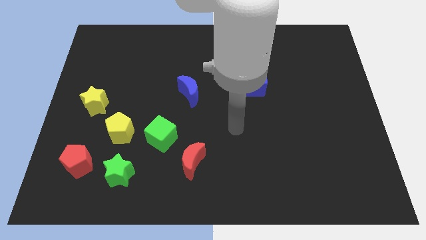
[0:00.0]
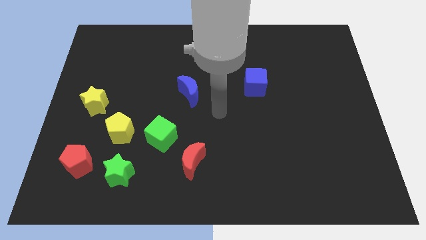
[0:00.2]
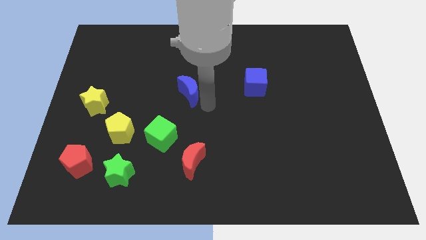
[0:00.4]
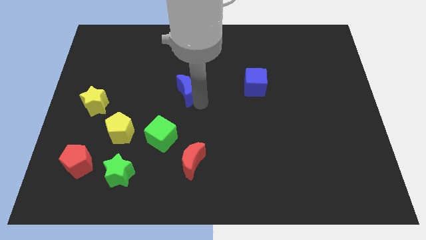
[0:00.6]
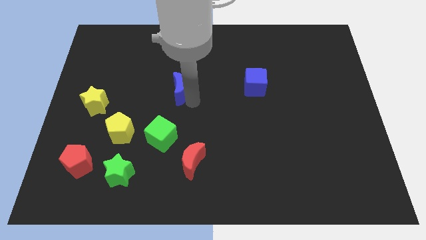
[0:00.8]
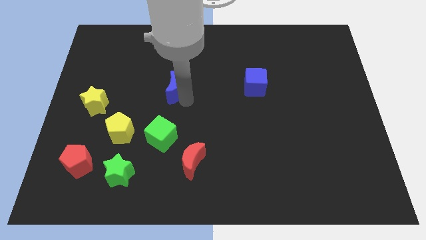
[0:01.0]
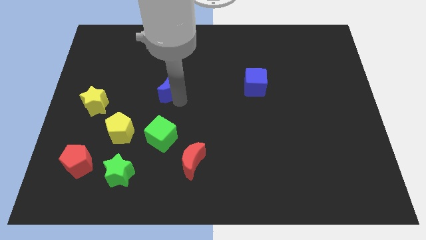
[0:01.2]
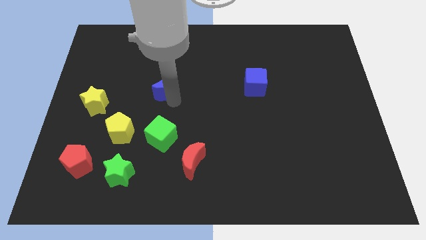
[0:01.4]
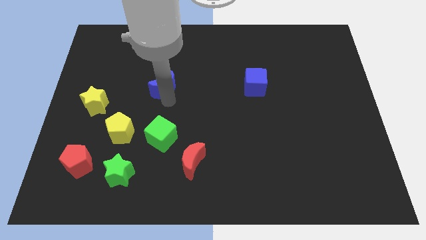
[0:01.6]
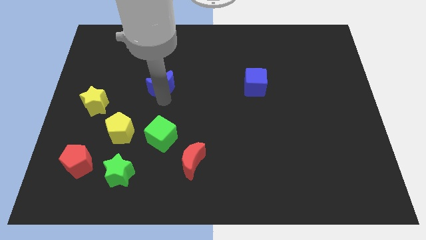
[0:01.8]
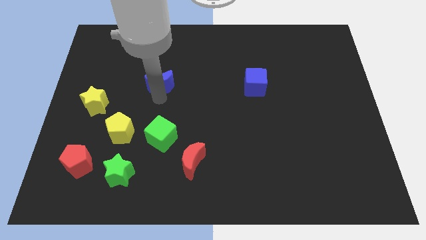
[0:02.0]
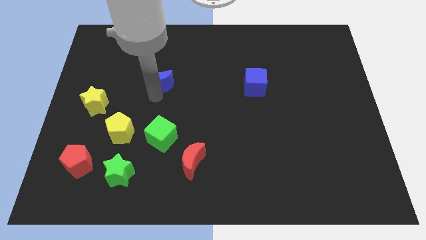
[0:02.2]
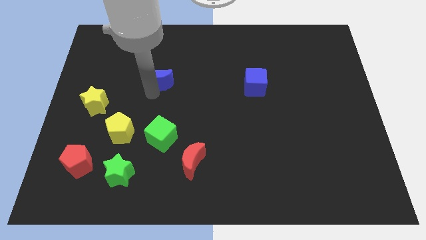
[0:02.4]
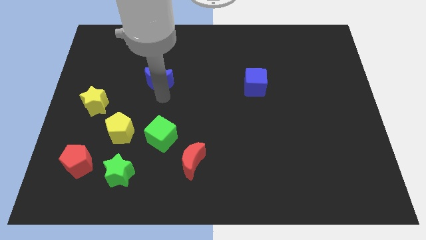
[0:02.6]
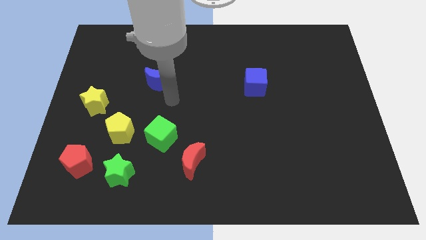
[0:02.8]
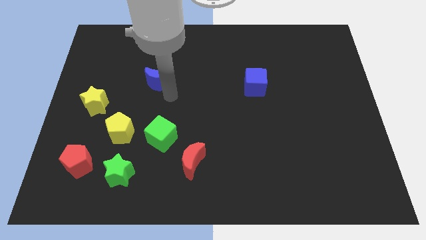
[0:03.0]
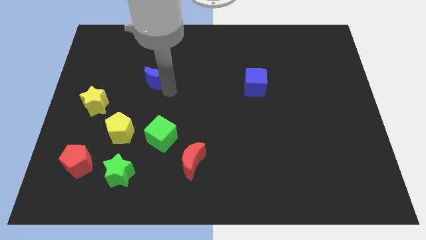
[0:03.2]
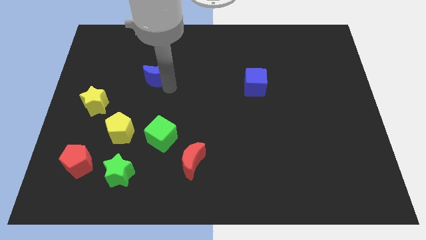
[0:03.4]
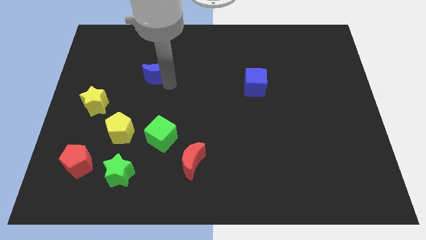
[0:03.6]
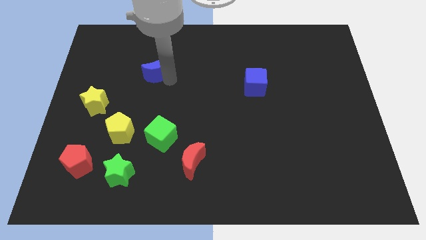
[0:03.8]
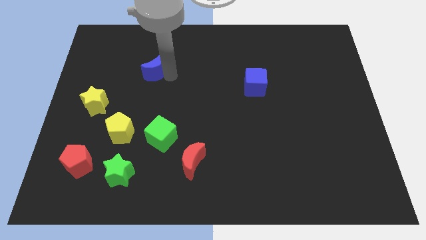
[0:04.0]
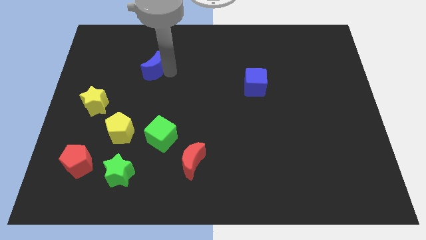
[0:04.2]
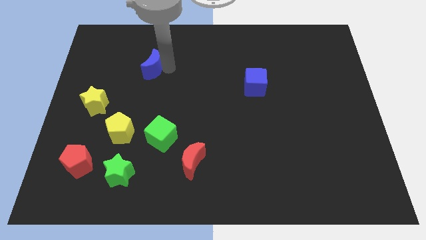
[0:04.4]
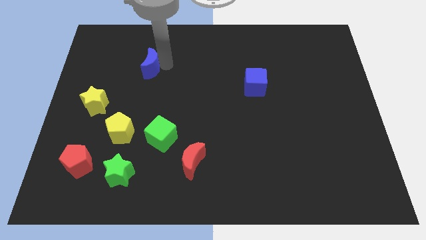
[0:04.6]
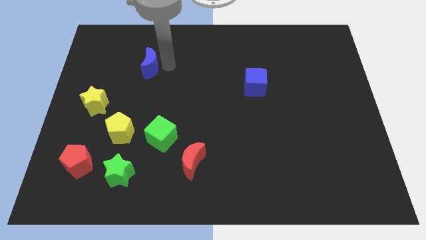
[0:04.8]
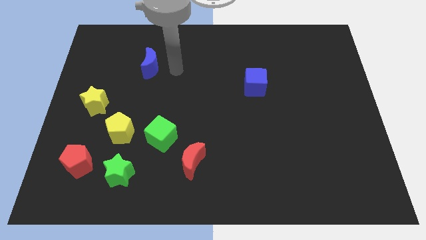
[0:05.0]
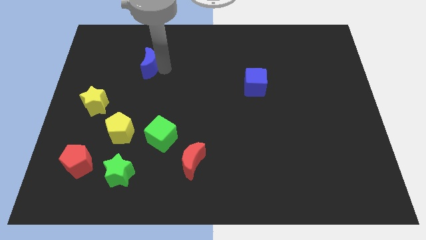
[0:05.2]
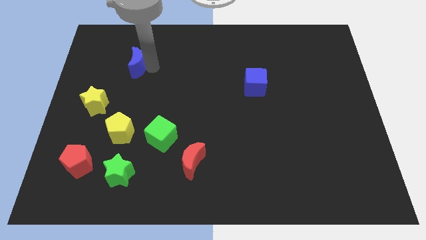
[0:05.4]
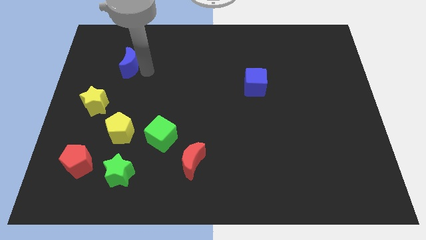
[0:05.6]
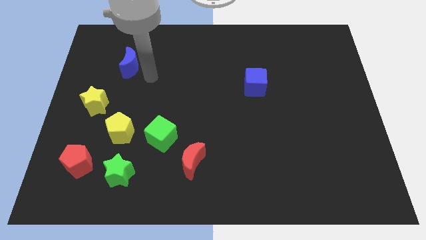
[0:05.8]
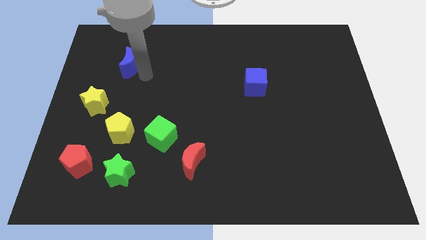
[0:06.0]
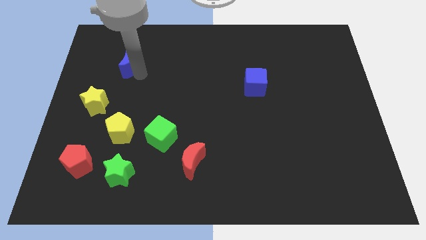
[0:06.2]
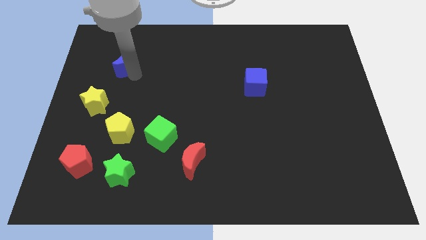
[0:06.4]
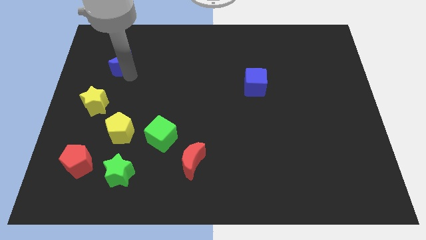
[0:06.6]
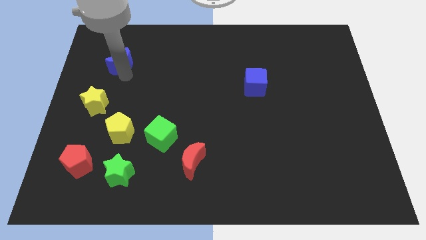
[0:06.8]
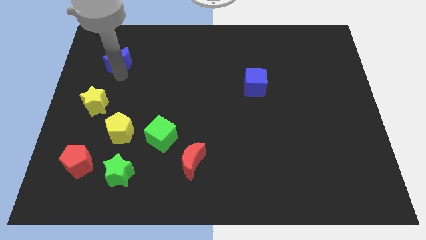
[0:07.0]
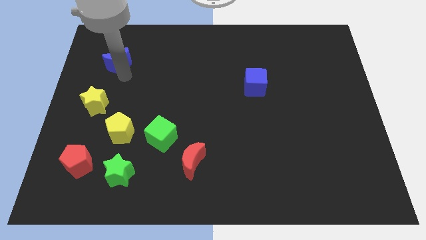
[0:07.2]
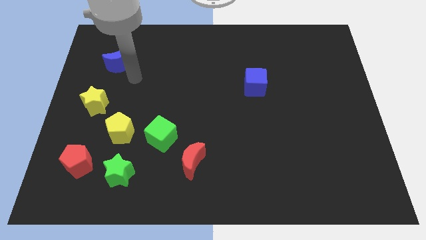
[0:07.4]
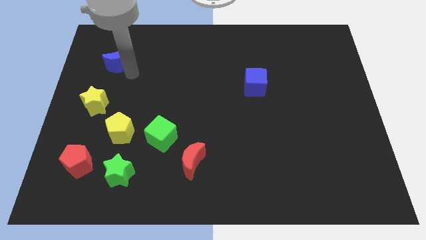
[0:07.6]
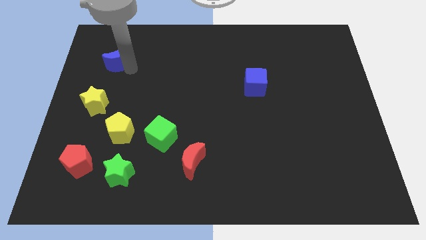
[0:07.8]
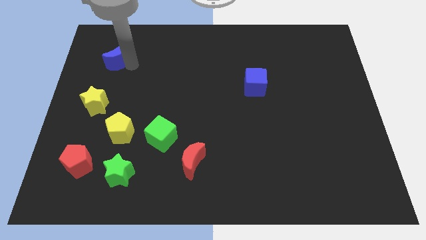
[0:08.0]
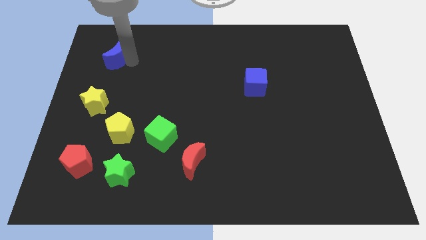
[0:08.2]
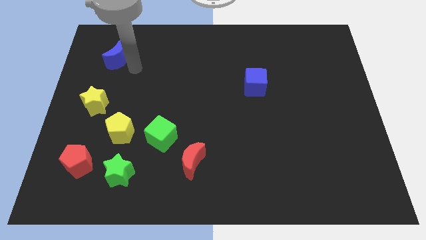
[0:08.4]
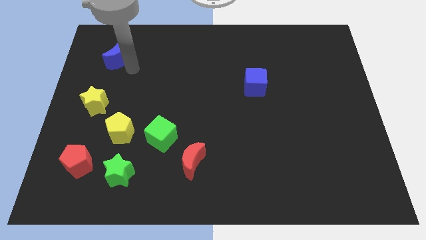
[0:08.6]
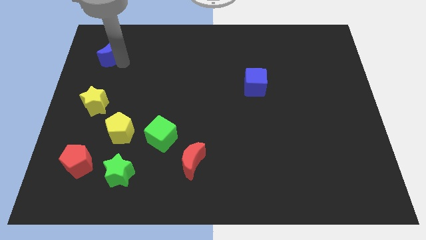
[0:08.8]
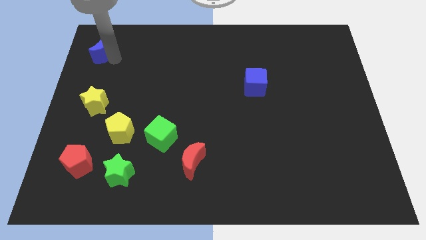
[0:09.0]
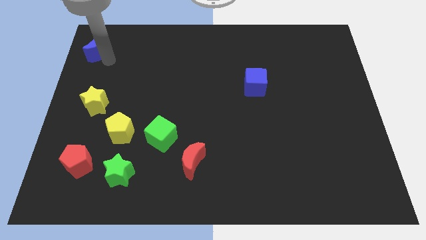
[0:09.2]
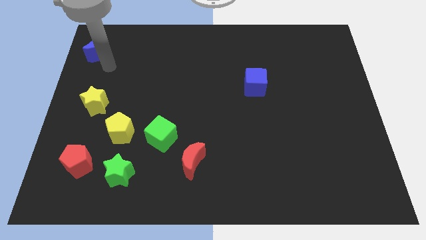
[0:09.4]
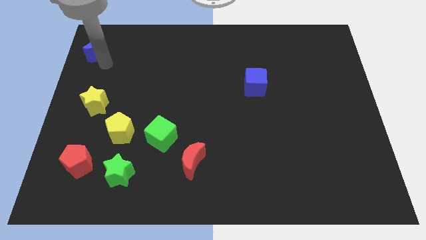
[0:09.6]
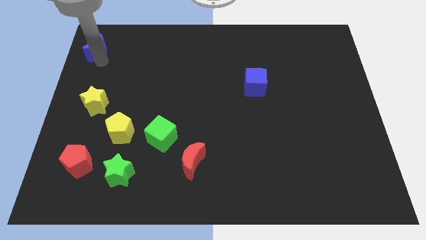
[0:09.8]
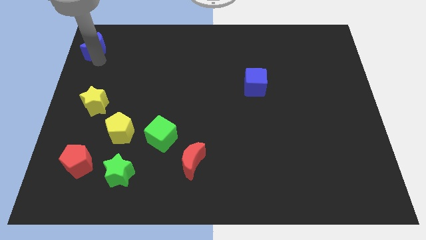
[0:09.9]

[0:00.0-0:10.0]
slide the blue moon to the top left corner

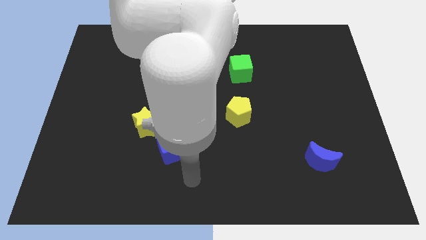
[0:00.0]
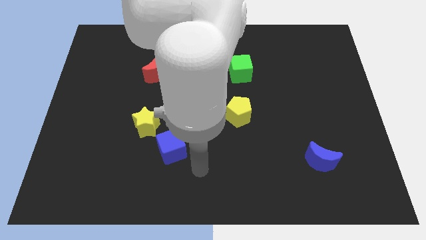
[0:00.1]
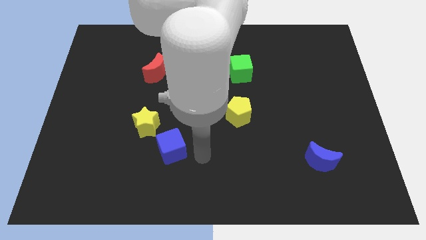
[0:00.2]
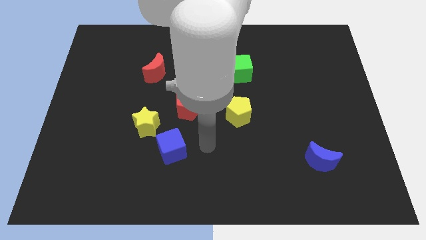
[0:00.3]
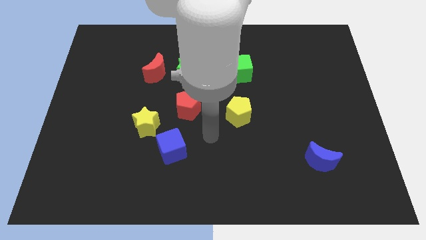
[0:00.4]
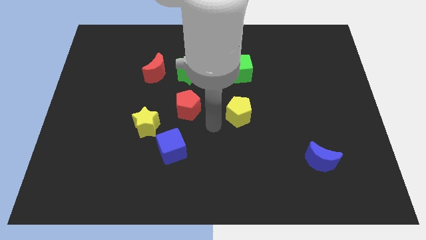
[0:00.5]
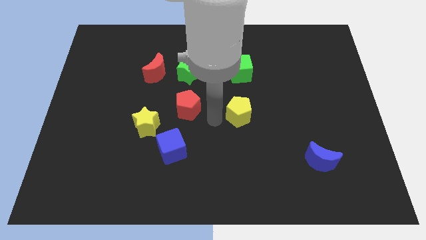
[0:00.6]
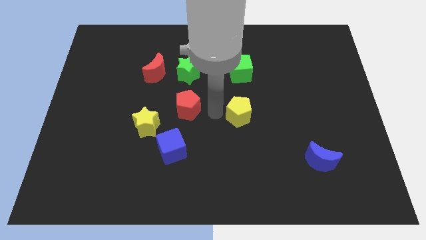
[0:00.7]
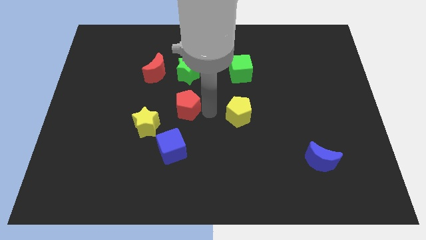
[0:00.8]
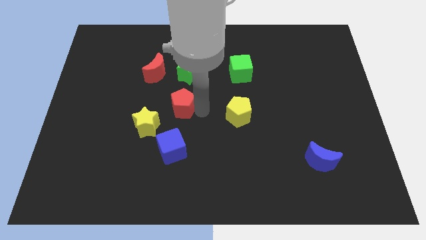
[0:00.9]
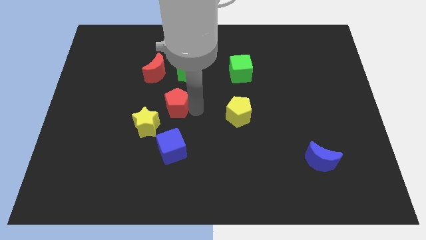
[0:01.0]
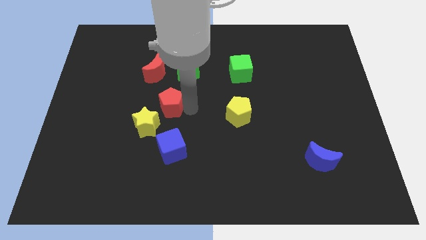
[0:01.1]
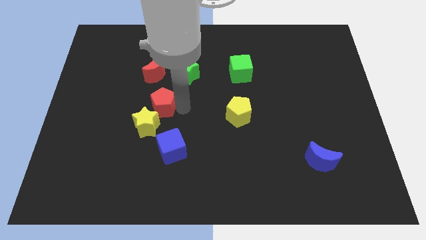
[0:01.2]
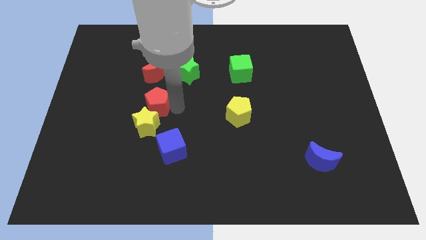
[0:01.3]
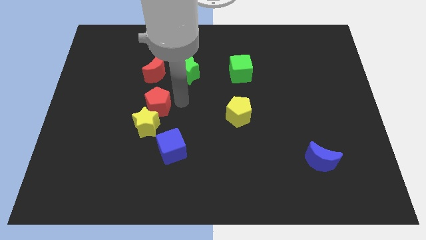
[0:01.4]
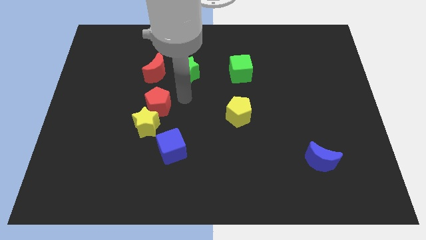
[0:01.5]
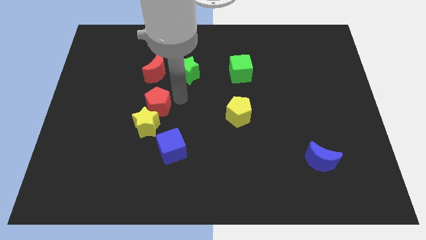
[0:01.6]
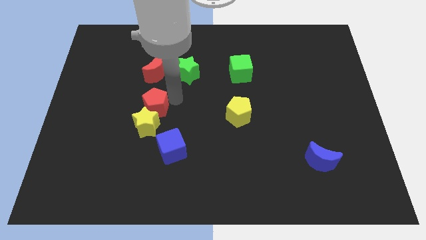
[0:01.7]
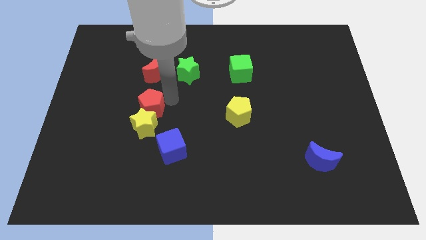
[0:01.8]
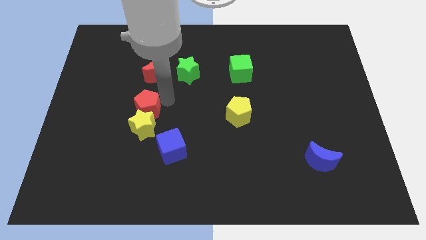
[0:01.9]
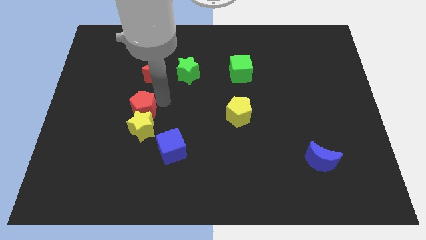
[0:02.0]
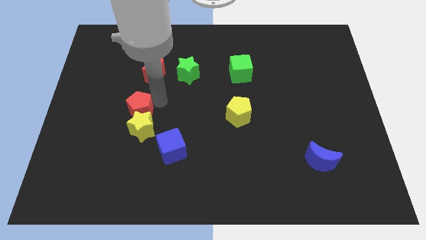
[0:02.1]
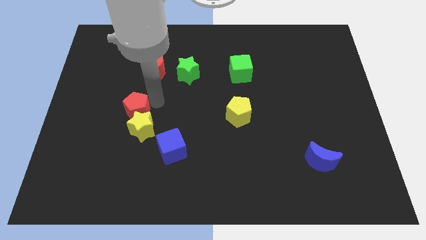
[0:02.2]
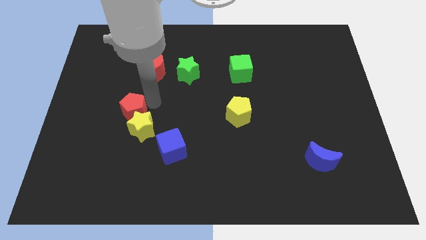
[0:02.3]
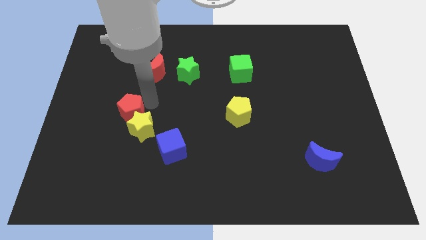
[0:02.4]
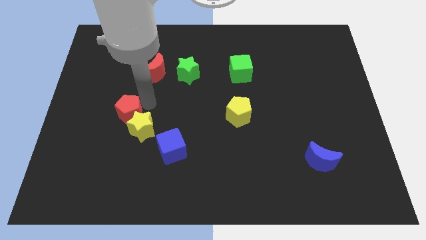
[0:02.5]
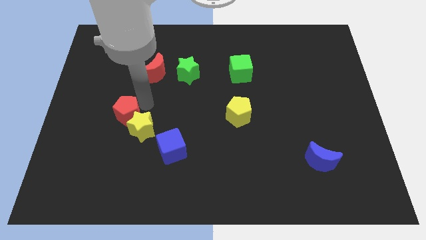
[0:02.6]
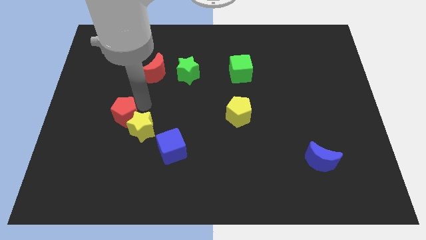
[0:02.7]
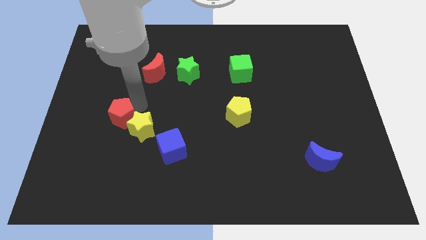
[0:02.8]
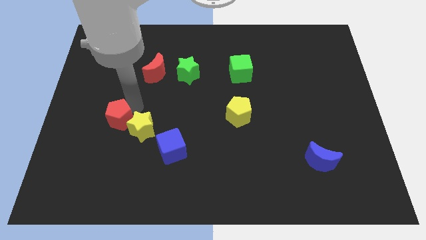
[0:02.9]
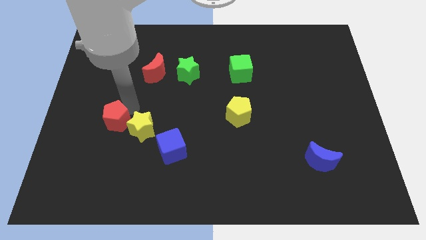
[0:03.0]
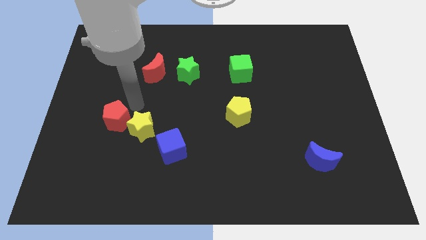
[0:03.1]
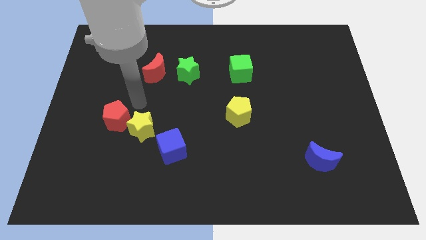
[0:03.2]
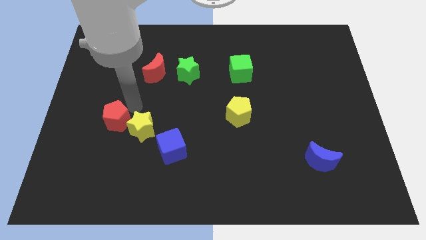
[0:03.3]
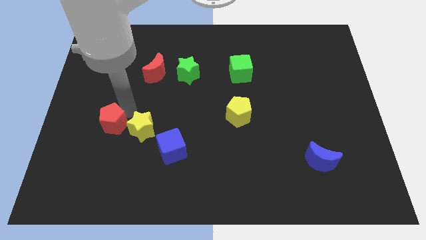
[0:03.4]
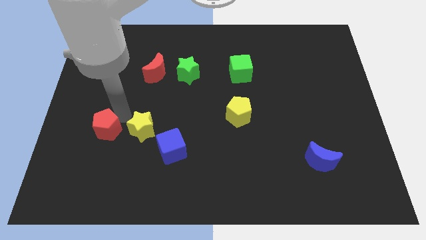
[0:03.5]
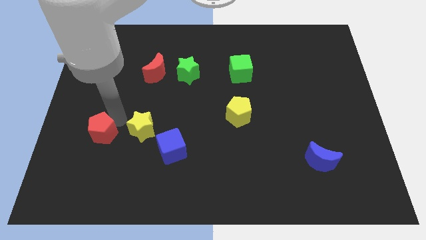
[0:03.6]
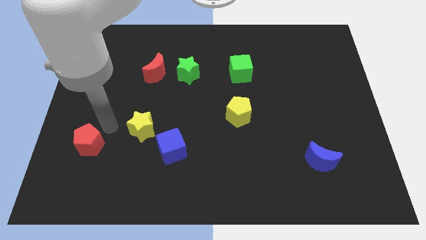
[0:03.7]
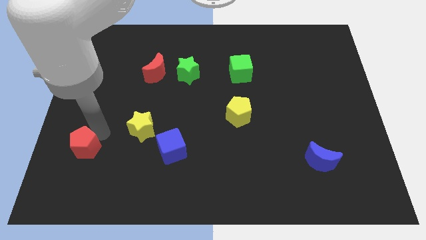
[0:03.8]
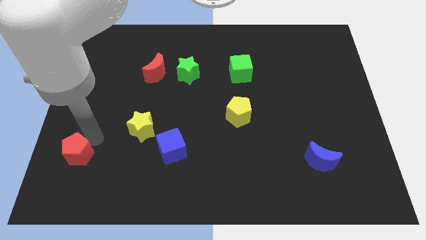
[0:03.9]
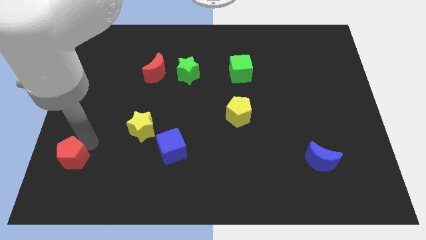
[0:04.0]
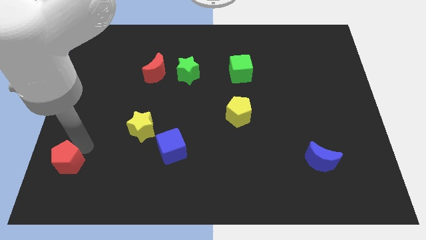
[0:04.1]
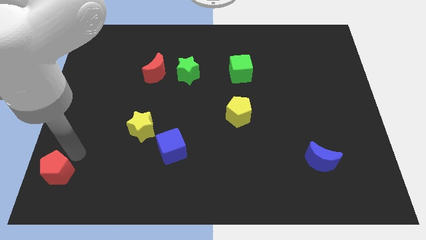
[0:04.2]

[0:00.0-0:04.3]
move the red pentagon to the lower left corner
